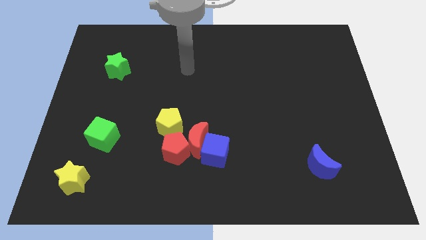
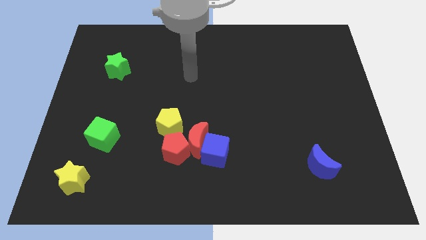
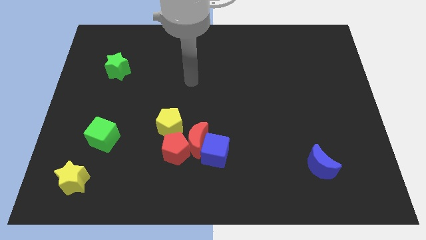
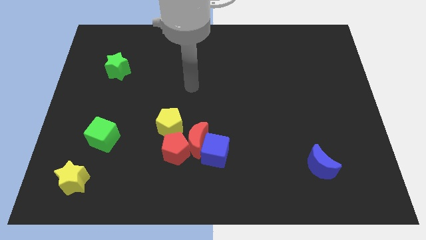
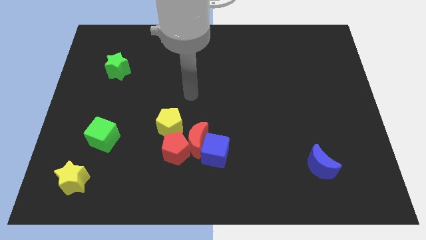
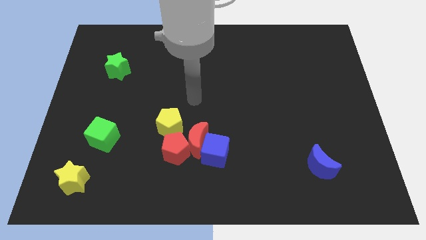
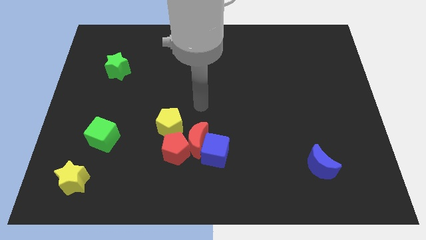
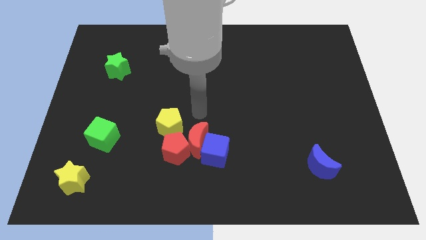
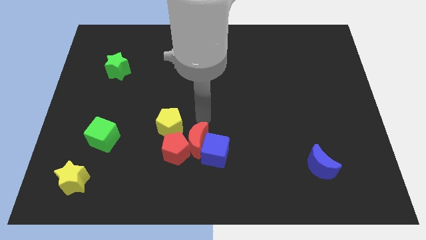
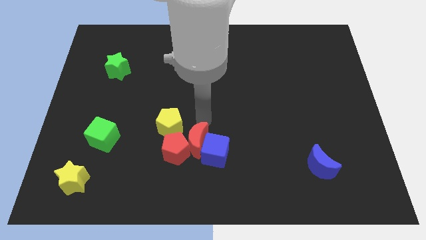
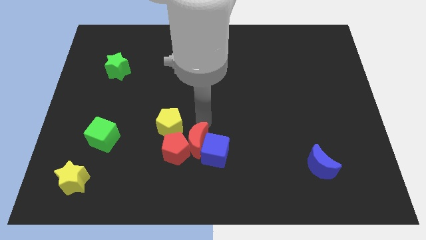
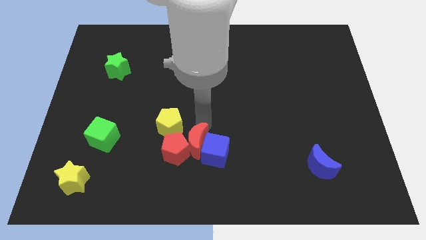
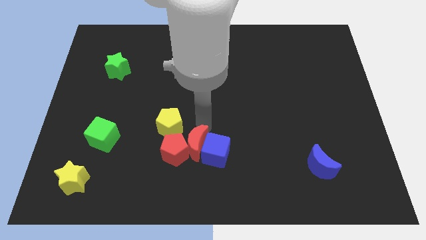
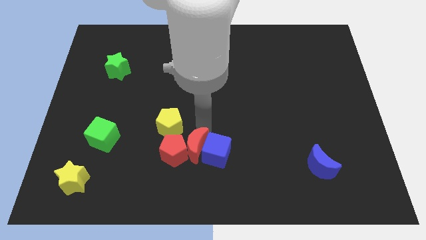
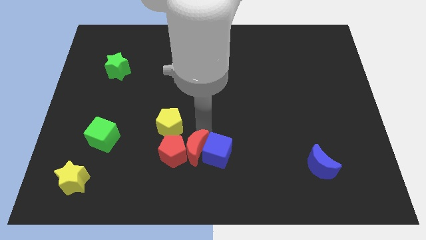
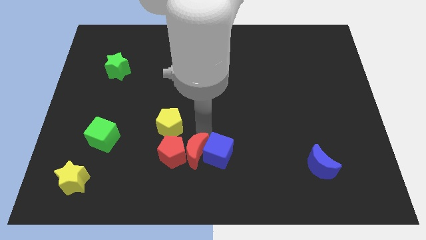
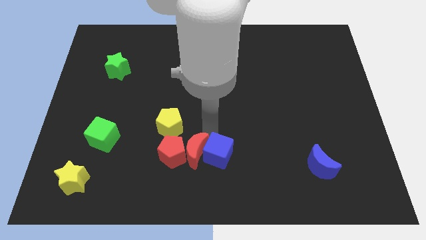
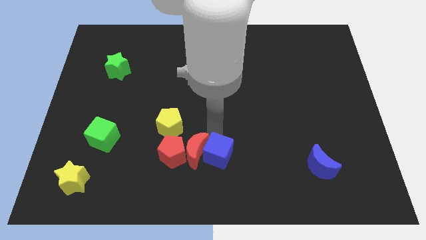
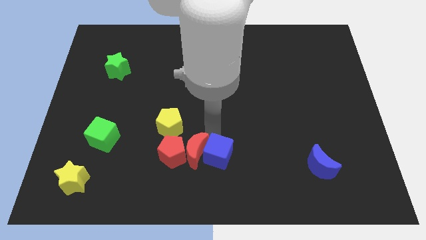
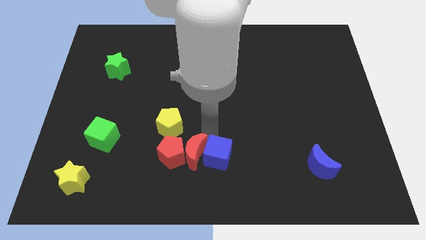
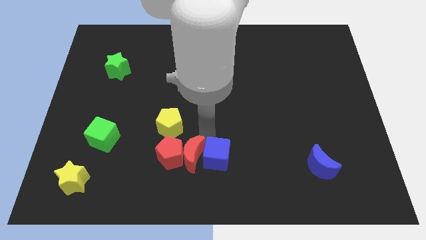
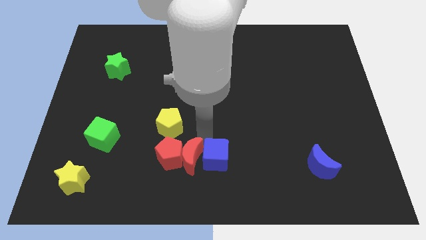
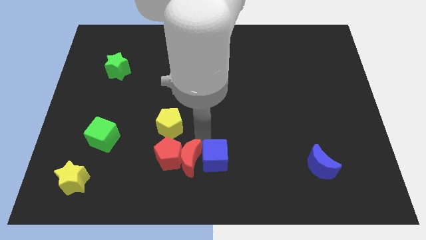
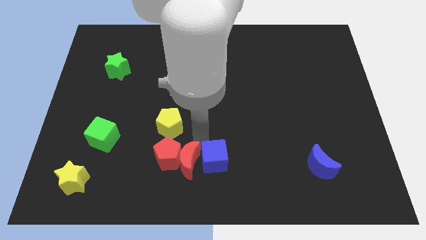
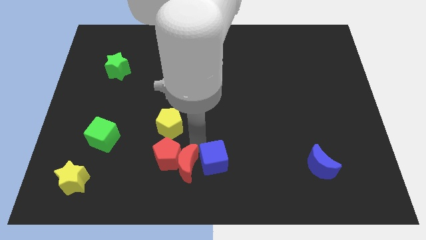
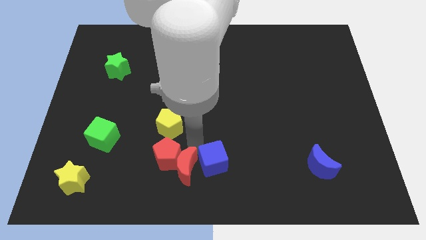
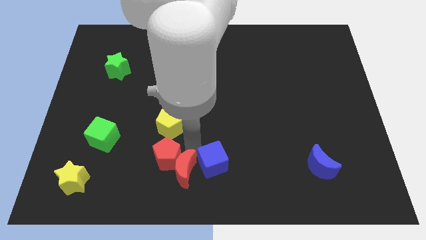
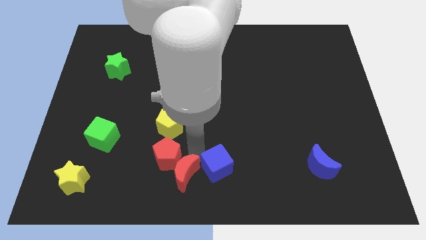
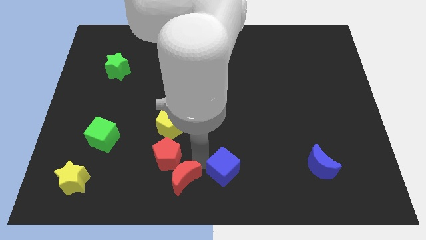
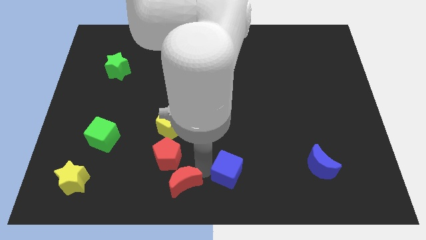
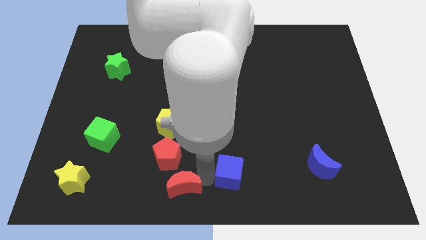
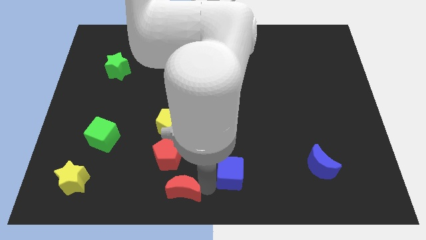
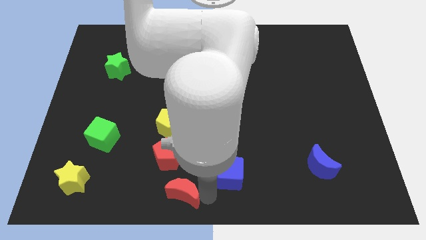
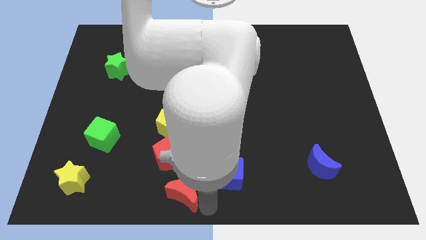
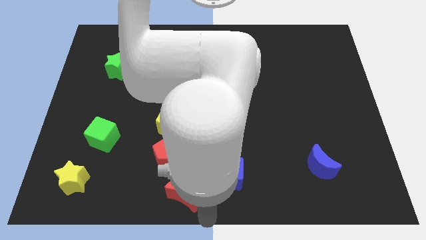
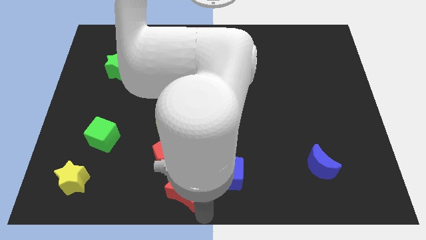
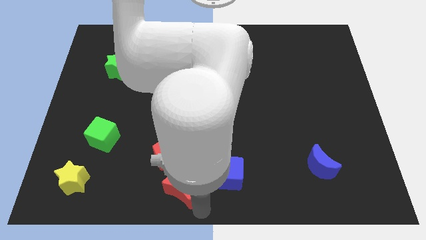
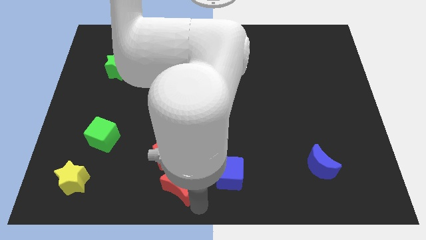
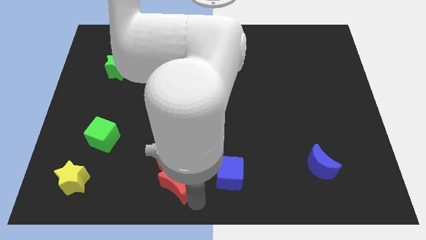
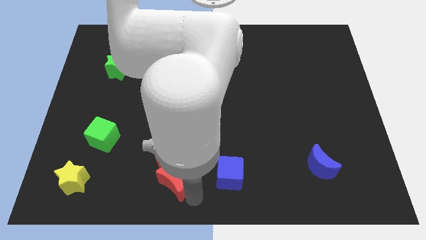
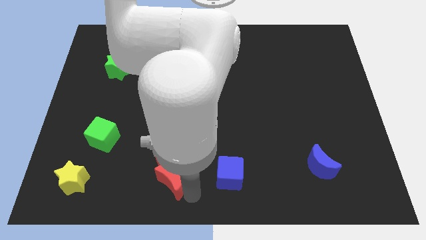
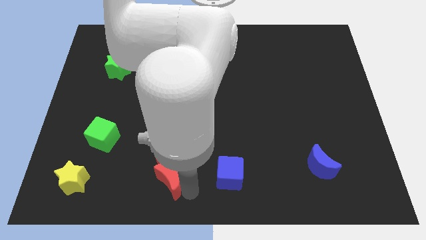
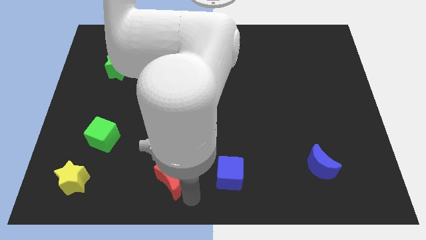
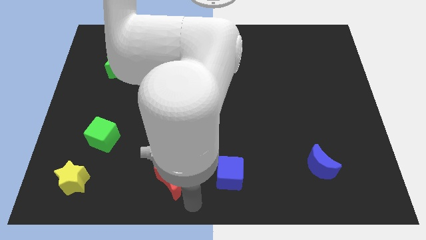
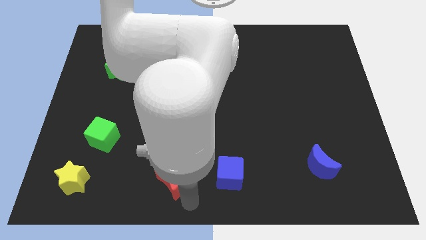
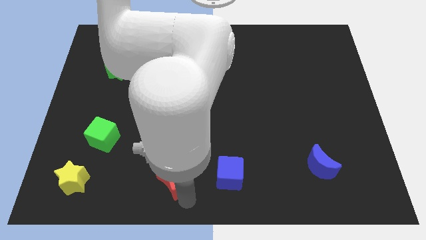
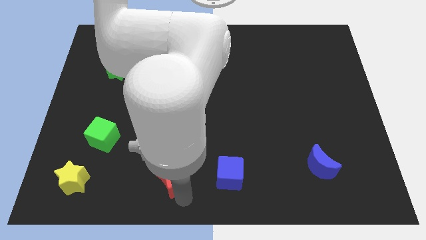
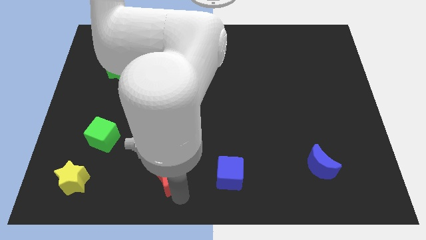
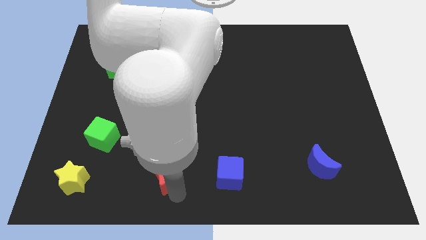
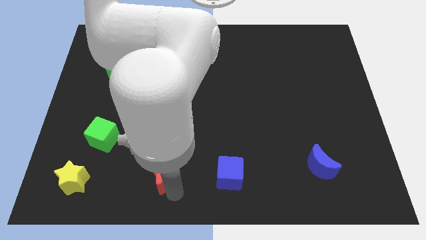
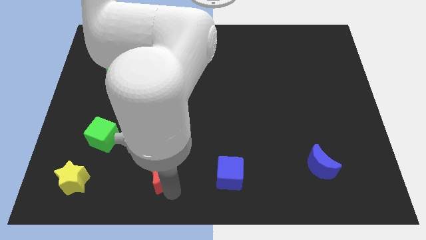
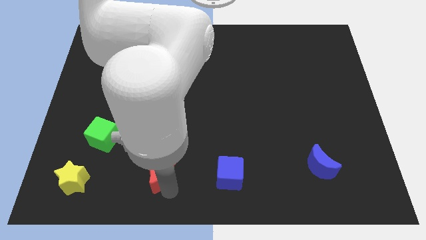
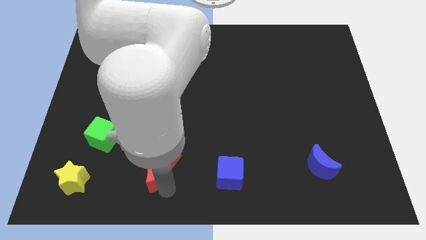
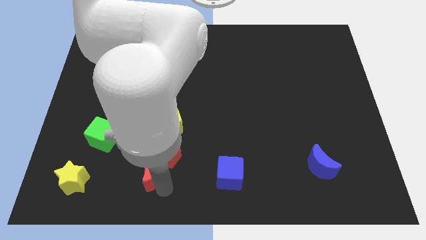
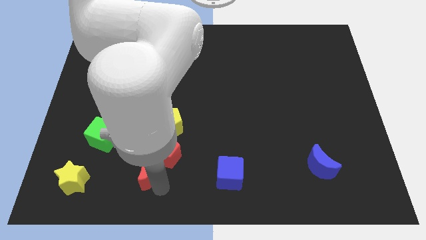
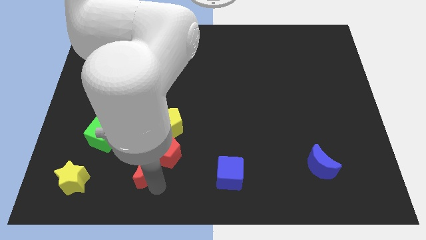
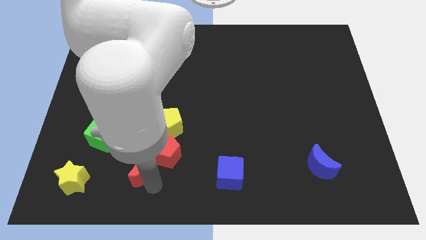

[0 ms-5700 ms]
slide the red moon diagonally down and to the right of the green cube

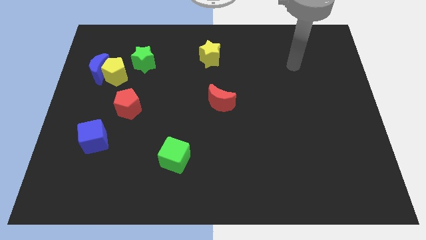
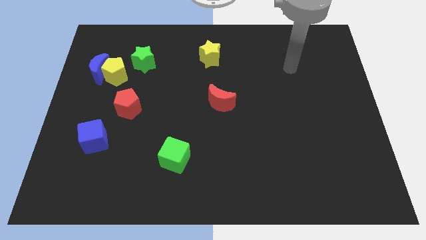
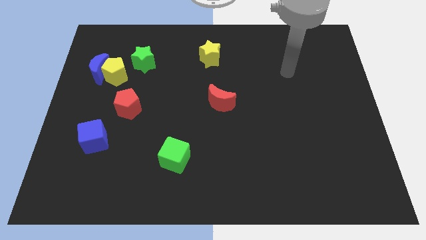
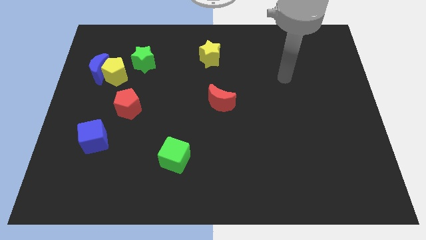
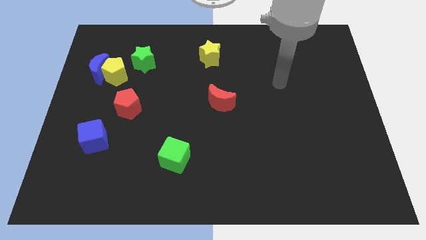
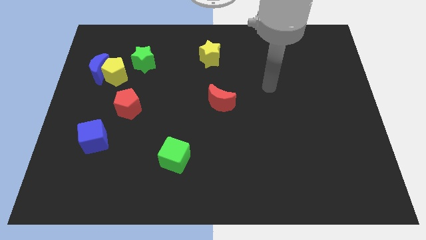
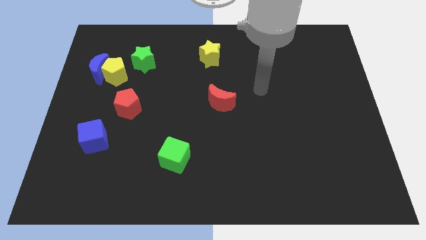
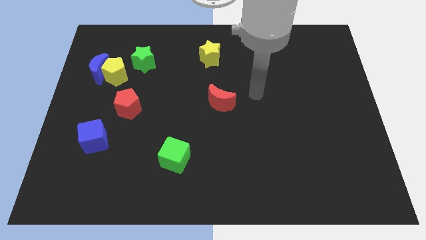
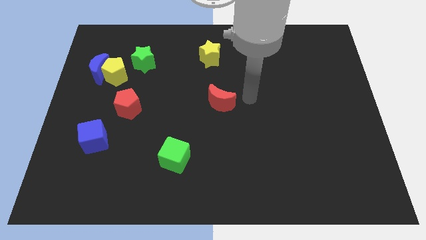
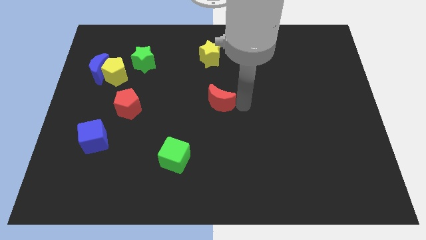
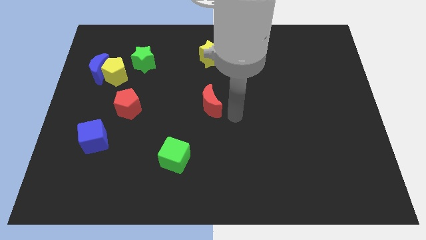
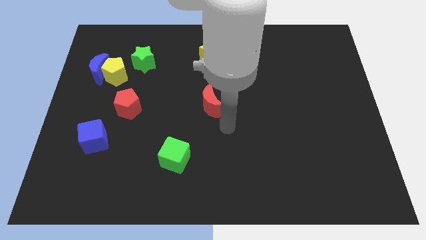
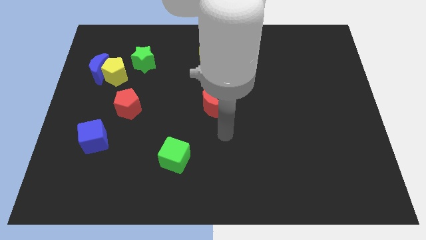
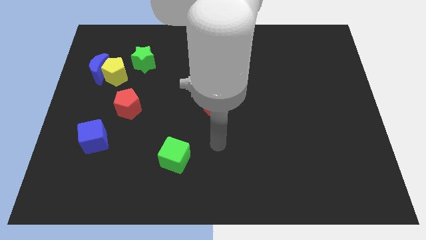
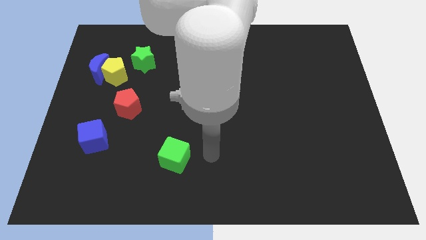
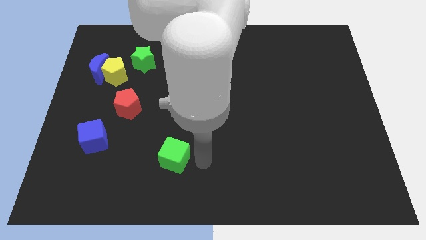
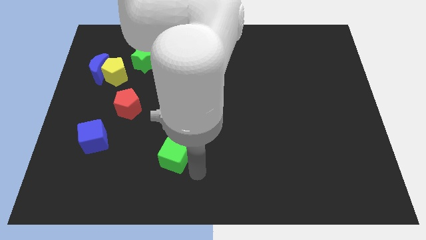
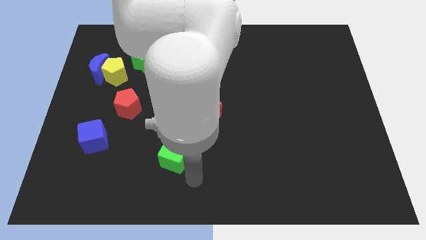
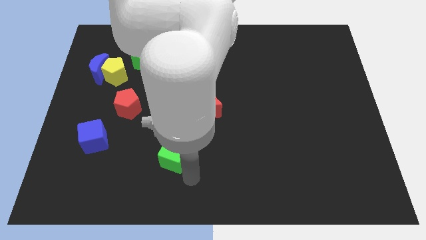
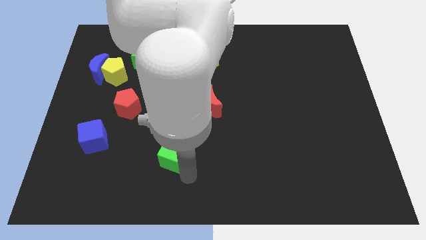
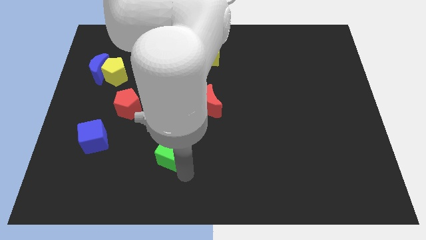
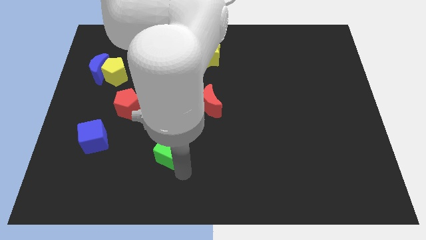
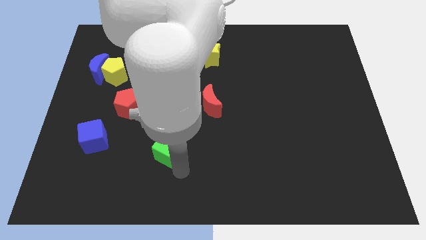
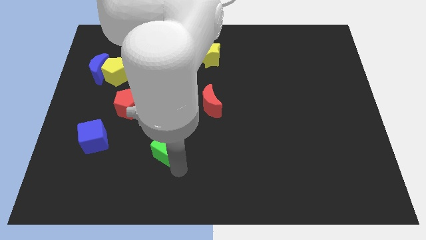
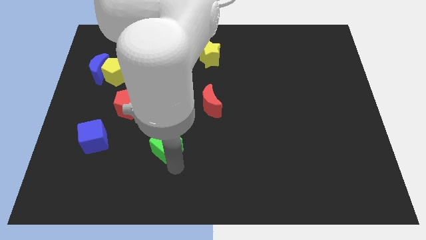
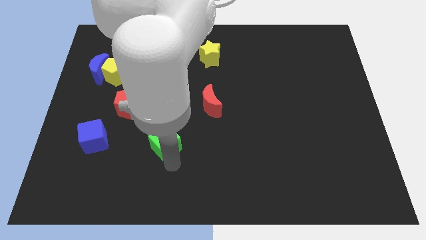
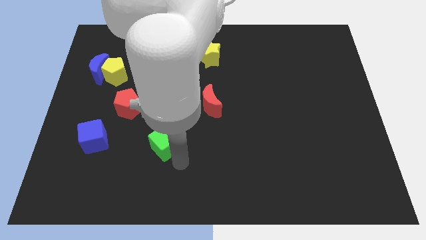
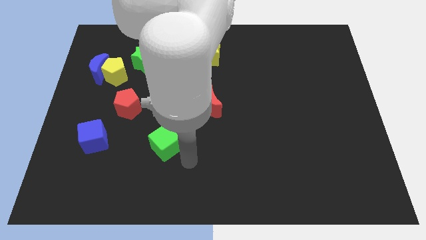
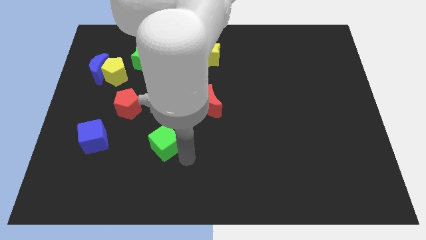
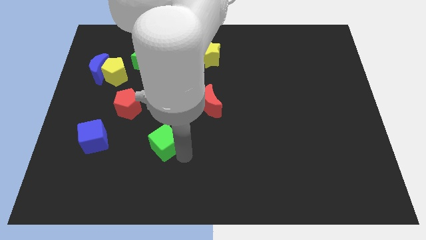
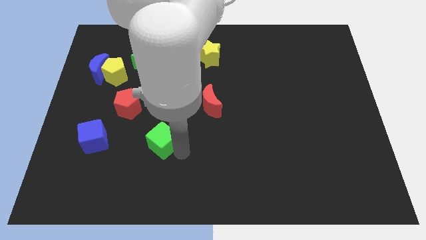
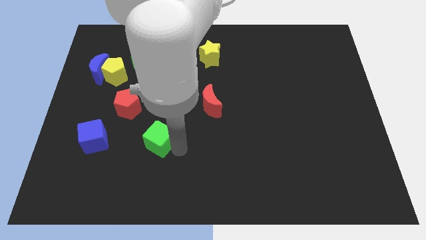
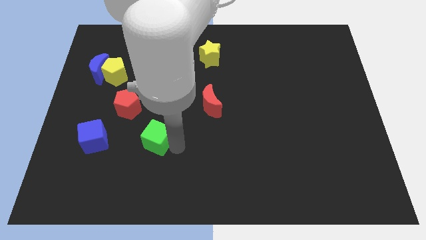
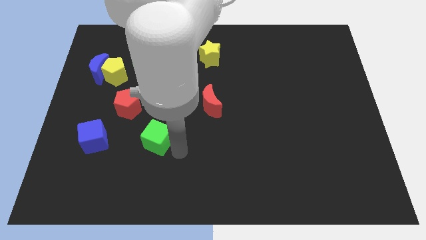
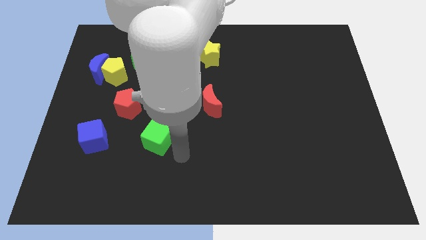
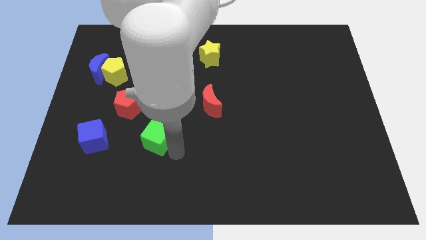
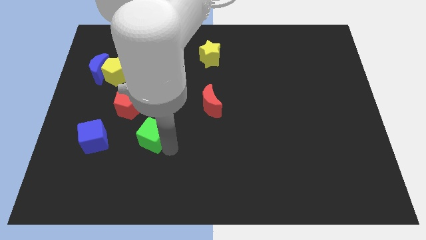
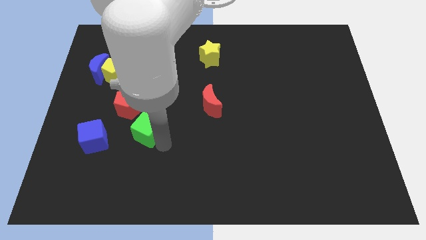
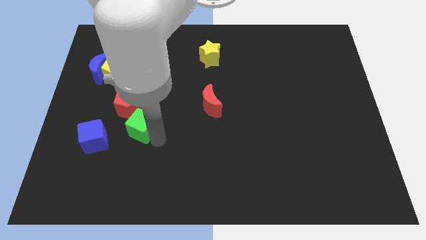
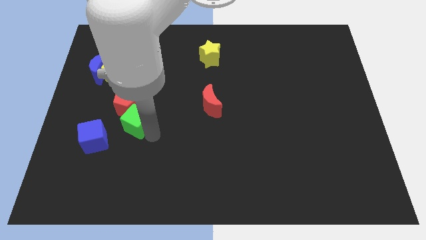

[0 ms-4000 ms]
push the green cube to the top right of the blue cube
